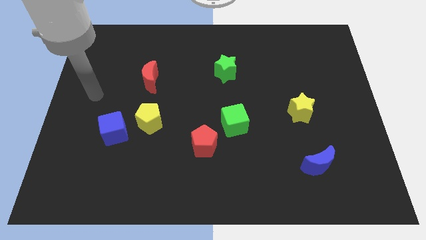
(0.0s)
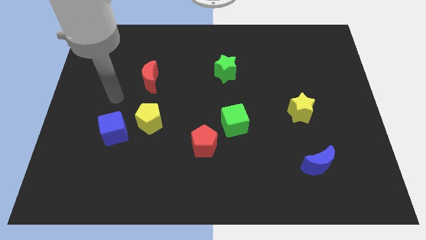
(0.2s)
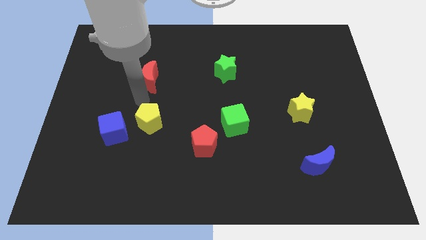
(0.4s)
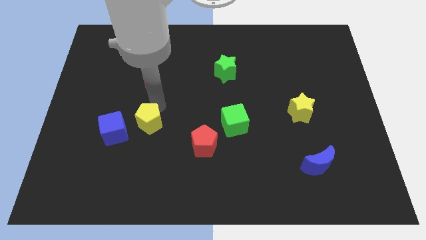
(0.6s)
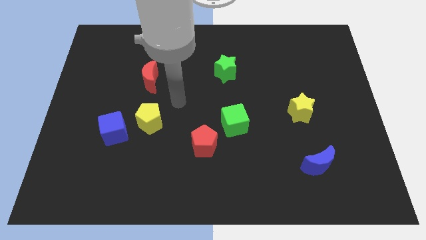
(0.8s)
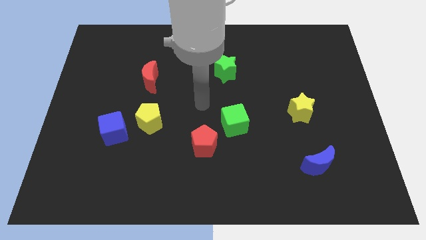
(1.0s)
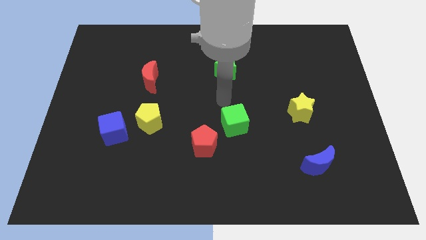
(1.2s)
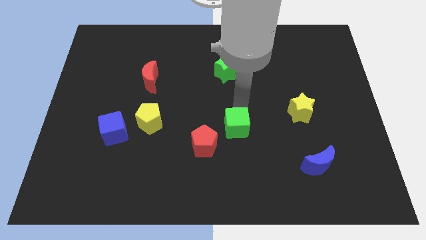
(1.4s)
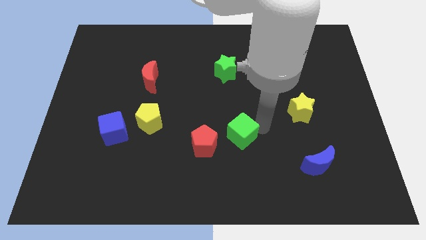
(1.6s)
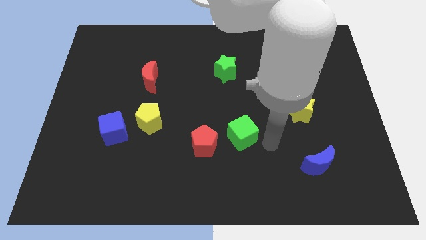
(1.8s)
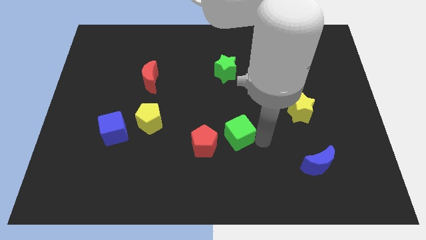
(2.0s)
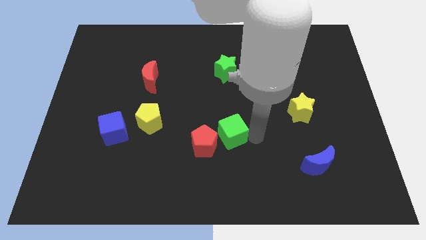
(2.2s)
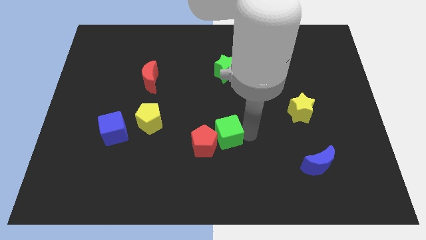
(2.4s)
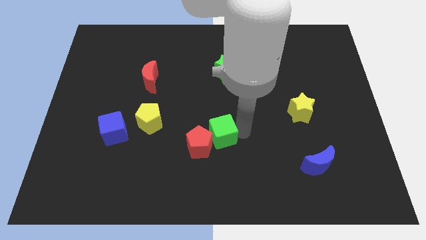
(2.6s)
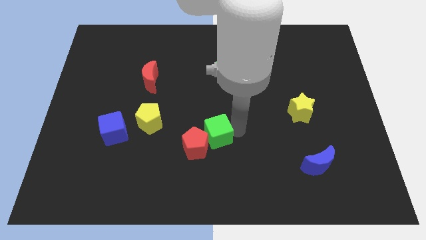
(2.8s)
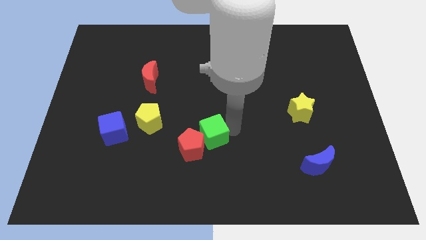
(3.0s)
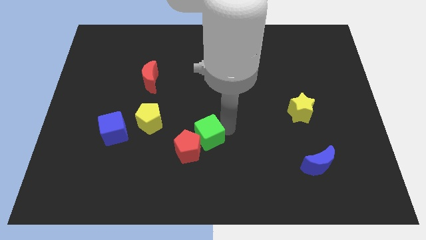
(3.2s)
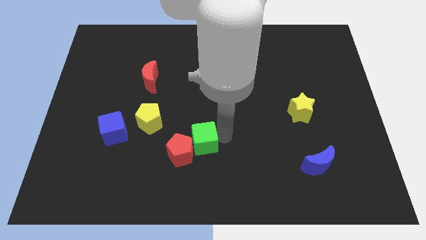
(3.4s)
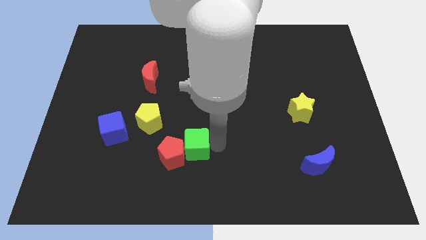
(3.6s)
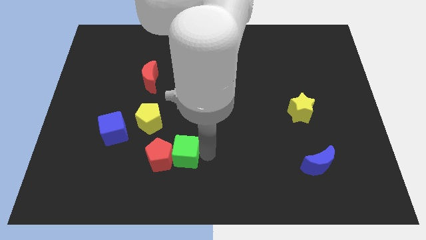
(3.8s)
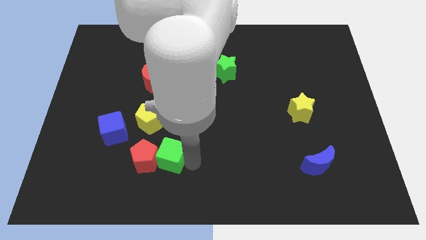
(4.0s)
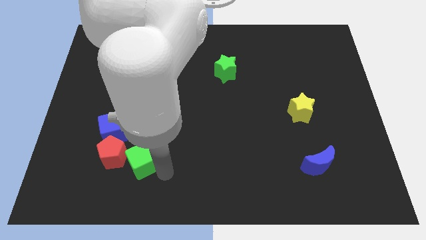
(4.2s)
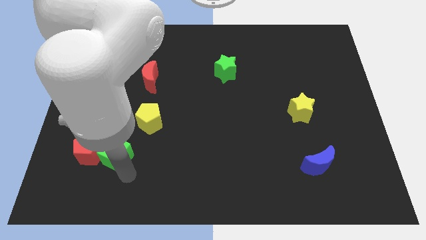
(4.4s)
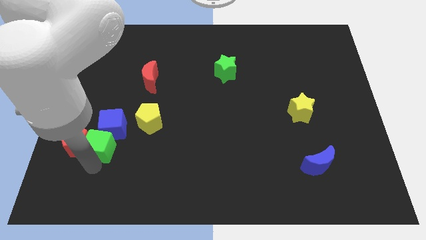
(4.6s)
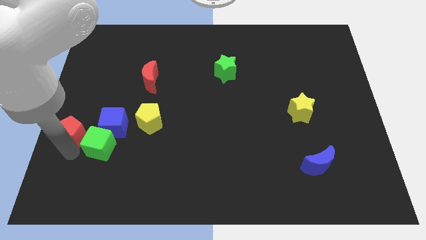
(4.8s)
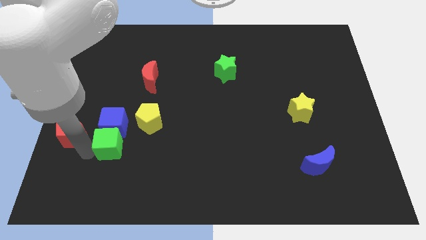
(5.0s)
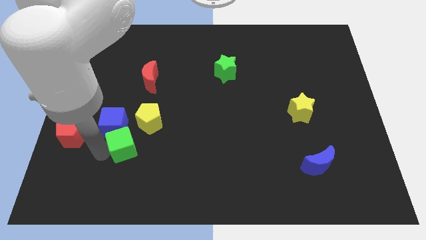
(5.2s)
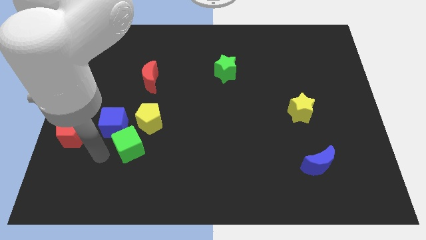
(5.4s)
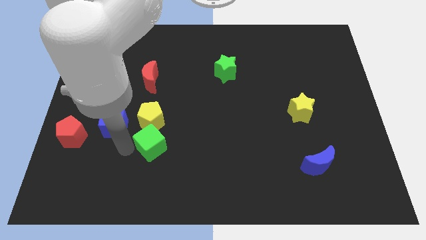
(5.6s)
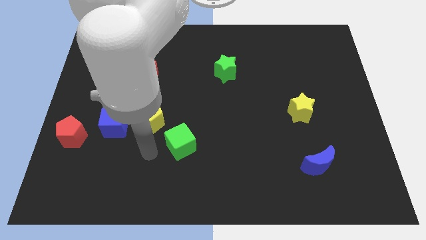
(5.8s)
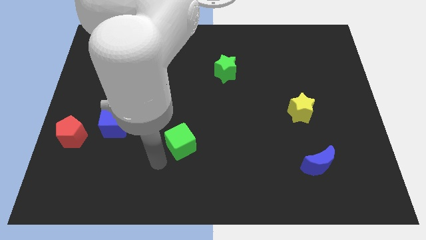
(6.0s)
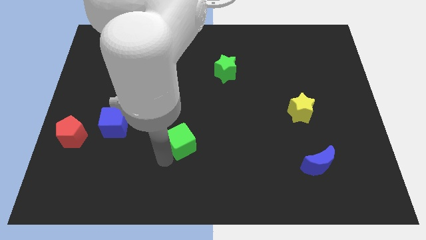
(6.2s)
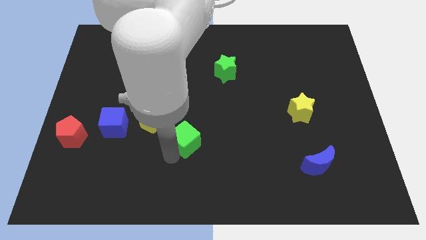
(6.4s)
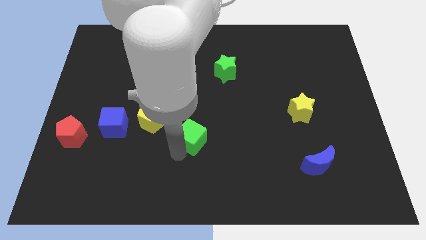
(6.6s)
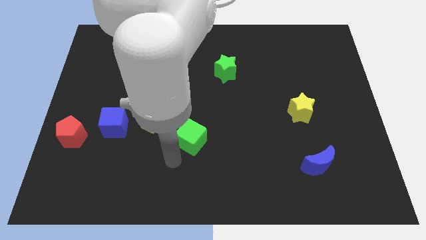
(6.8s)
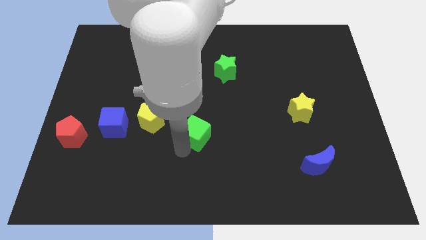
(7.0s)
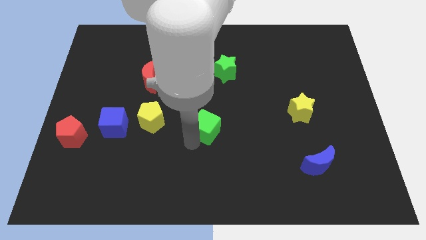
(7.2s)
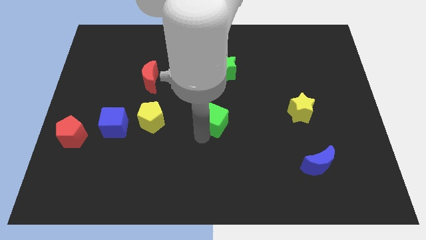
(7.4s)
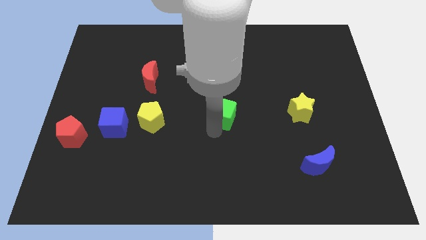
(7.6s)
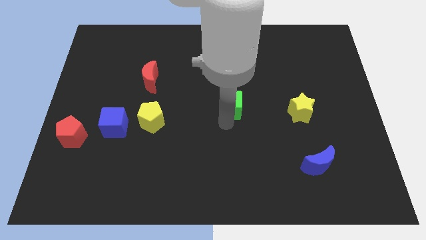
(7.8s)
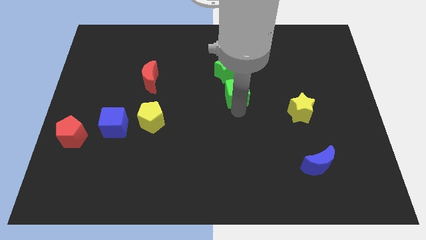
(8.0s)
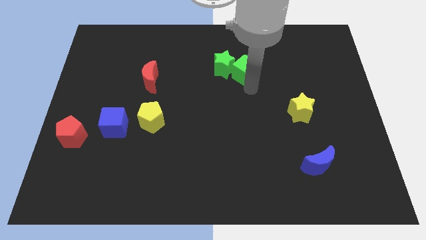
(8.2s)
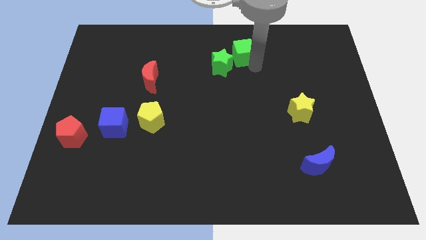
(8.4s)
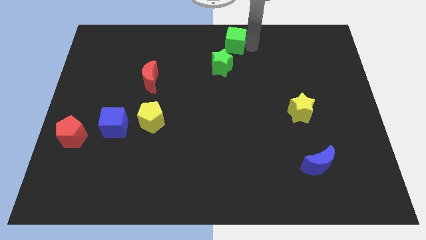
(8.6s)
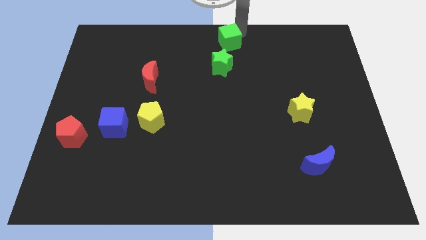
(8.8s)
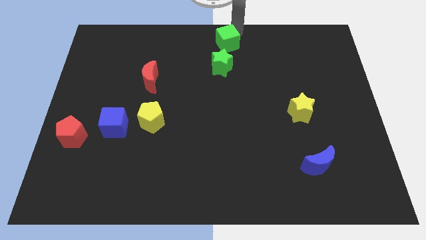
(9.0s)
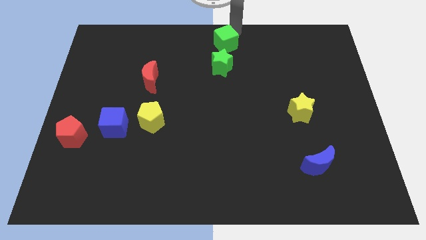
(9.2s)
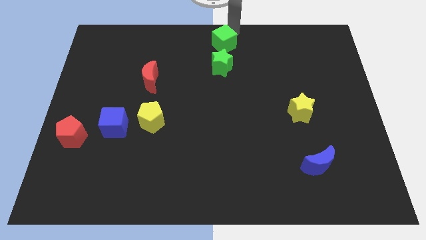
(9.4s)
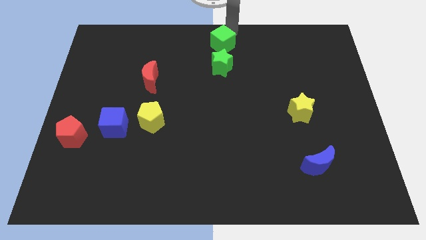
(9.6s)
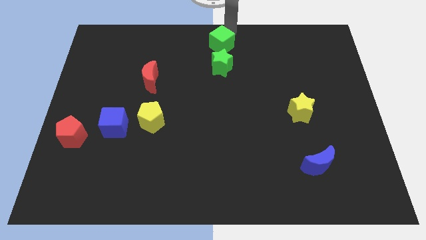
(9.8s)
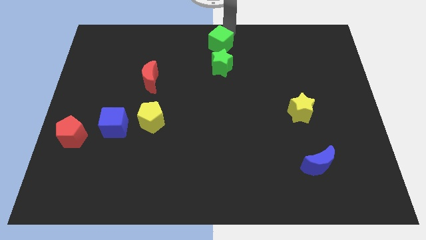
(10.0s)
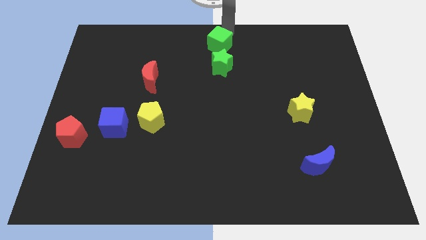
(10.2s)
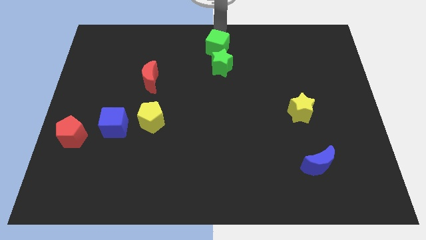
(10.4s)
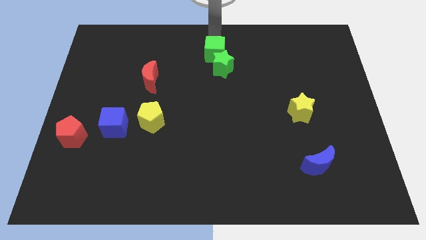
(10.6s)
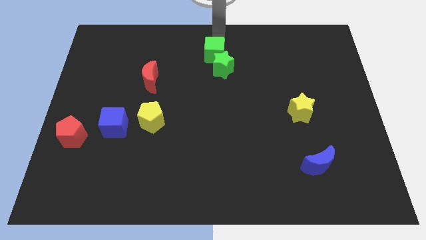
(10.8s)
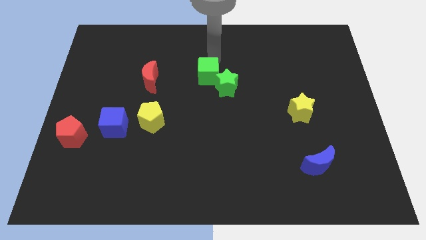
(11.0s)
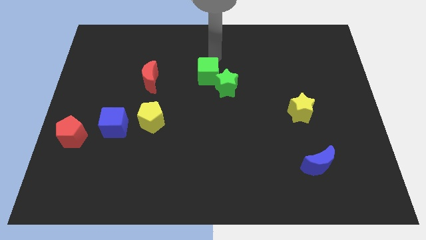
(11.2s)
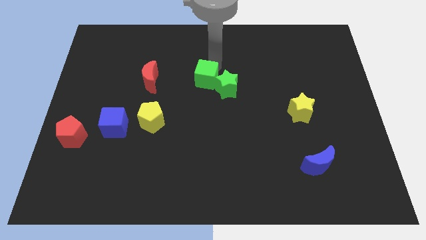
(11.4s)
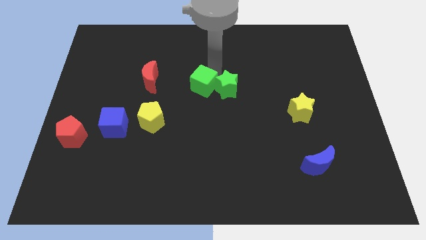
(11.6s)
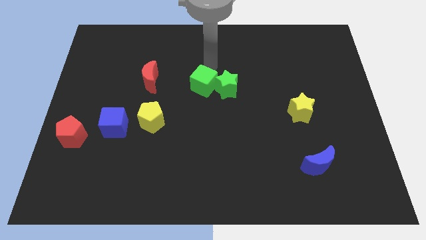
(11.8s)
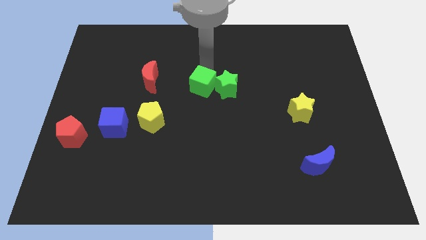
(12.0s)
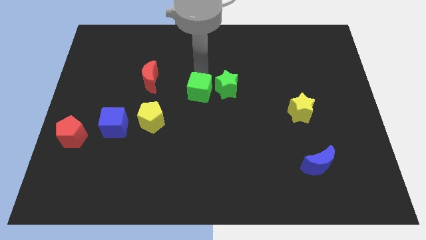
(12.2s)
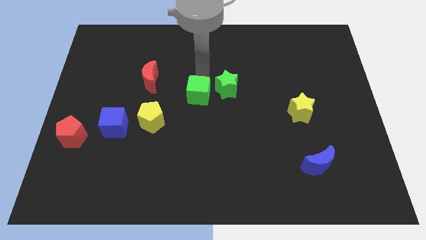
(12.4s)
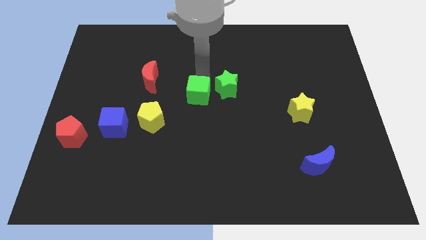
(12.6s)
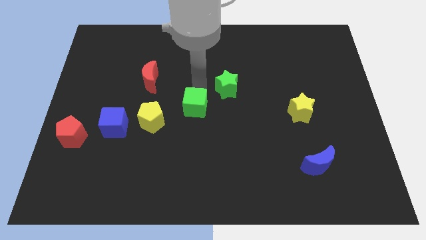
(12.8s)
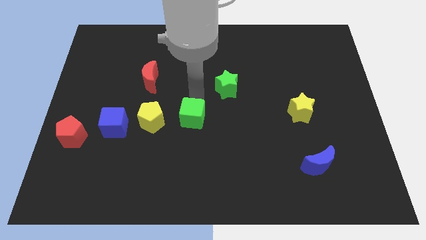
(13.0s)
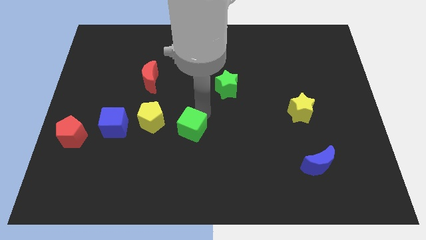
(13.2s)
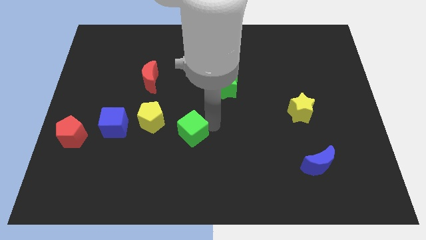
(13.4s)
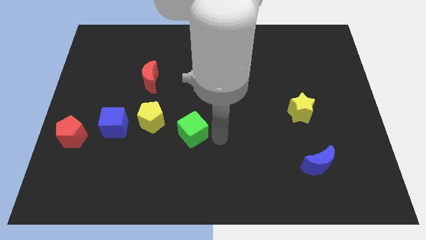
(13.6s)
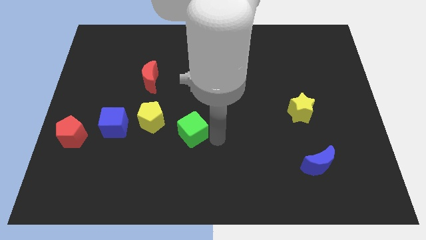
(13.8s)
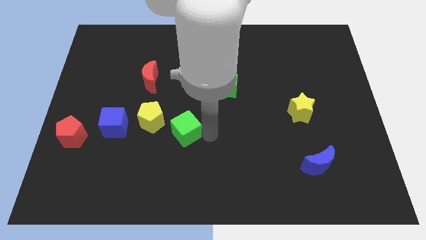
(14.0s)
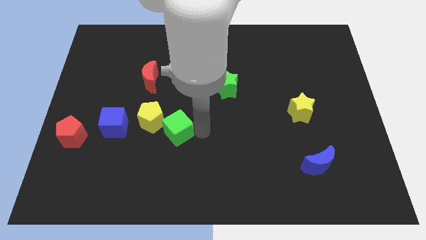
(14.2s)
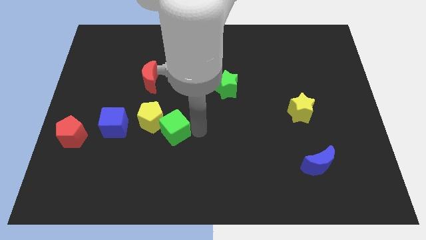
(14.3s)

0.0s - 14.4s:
move the green cube towards the yellow pentagon

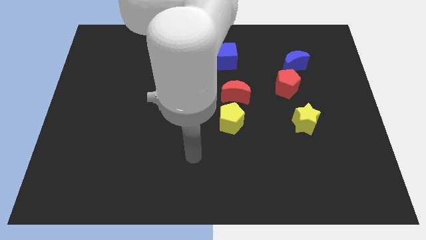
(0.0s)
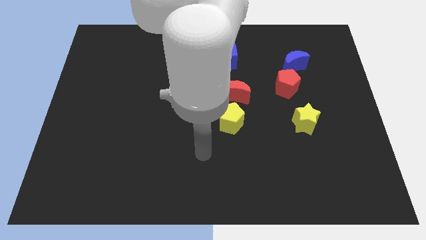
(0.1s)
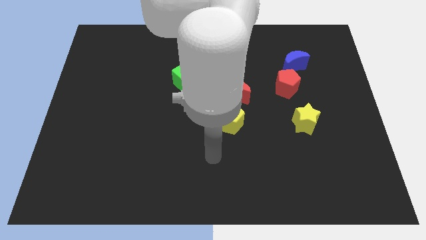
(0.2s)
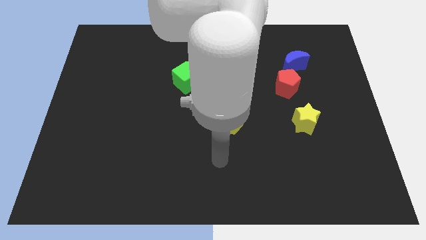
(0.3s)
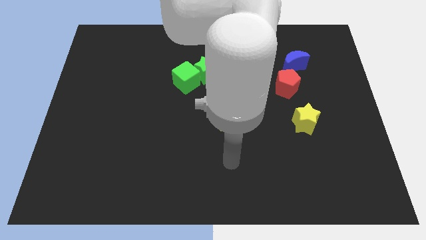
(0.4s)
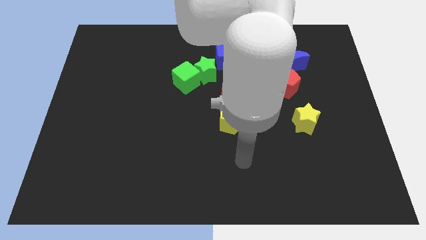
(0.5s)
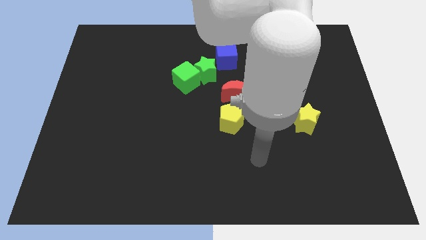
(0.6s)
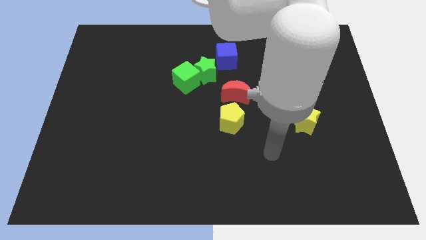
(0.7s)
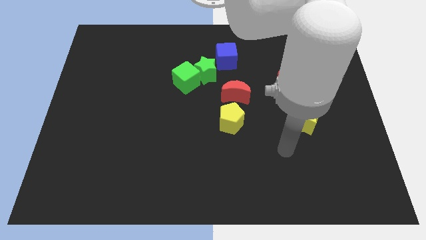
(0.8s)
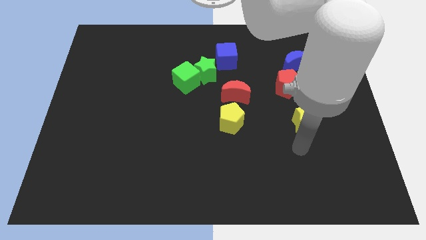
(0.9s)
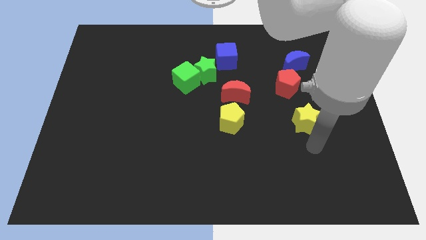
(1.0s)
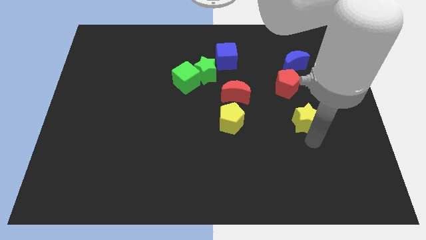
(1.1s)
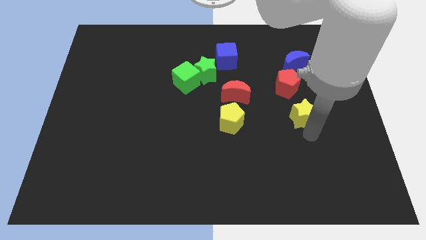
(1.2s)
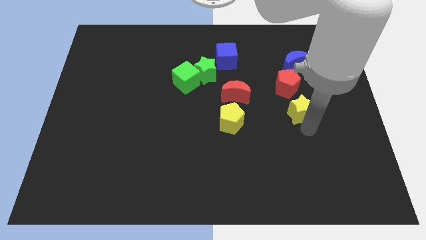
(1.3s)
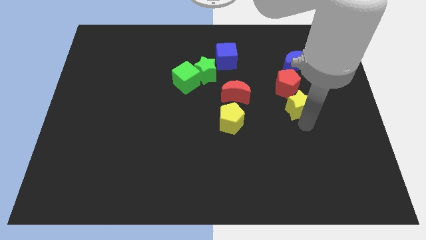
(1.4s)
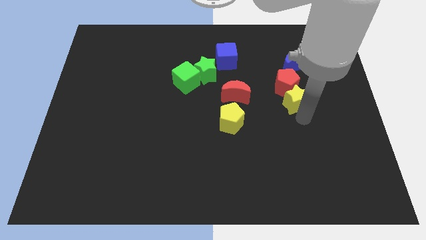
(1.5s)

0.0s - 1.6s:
slide the yellow star next to the red pentagon
